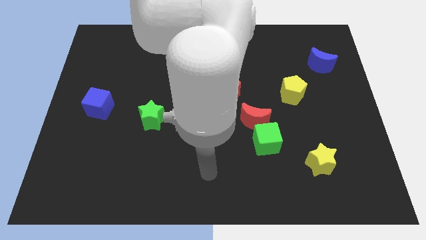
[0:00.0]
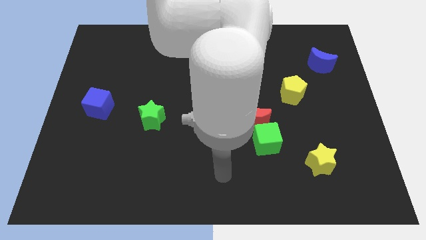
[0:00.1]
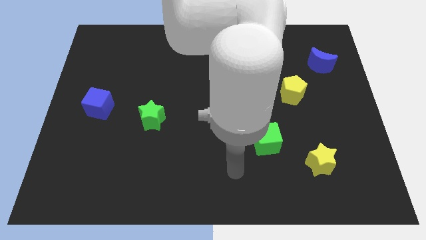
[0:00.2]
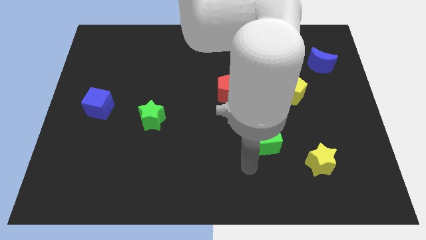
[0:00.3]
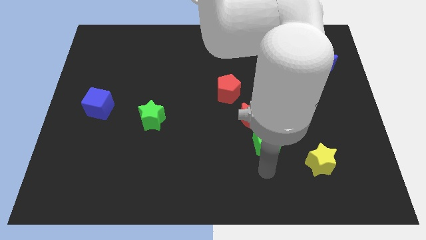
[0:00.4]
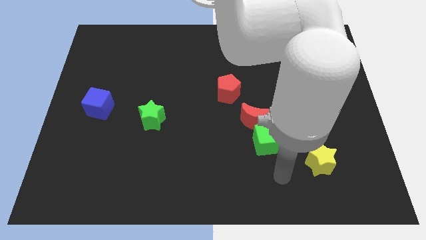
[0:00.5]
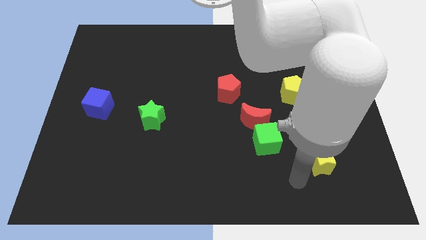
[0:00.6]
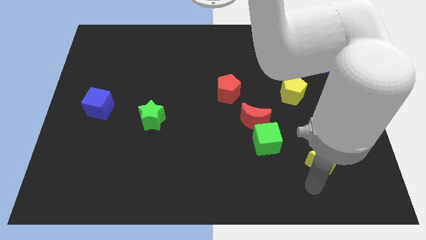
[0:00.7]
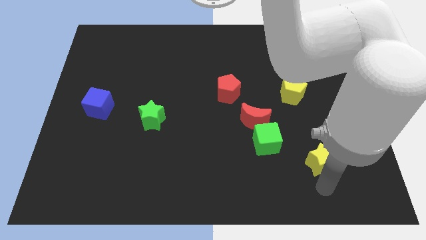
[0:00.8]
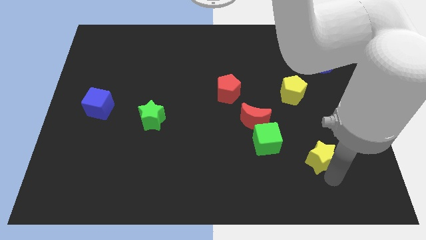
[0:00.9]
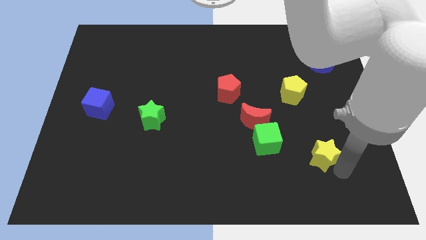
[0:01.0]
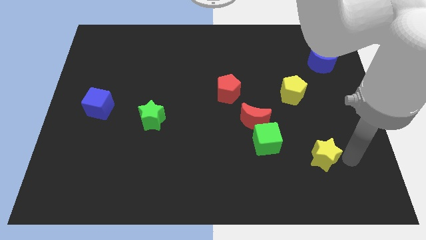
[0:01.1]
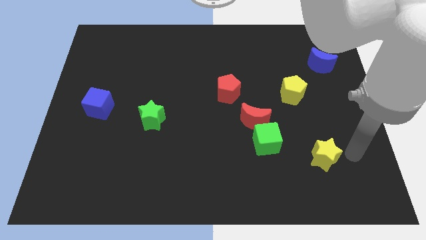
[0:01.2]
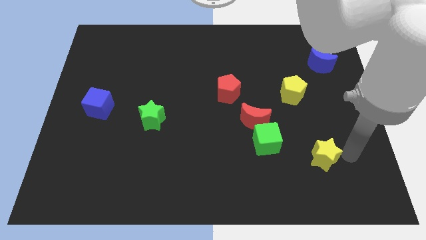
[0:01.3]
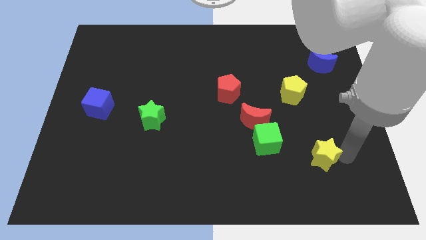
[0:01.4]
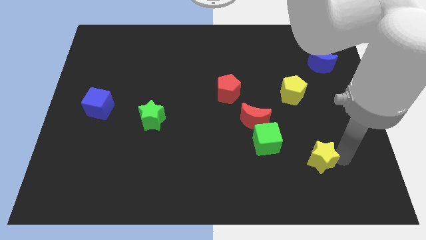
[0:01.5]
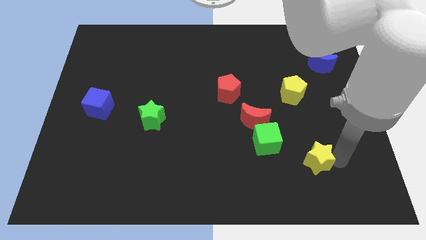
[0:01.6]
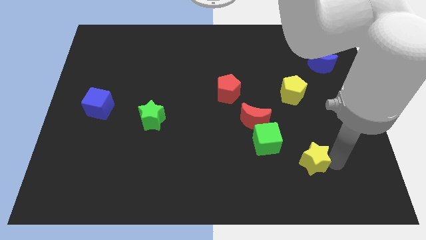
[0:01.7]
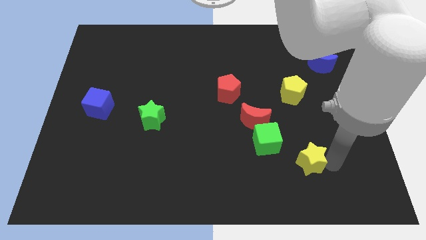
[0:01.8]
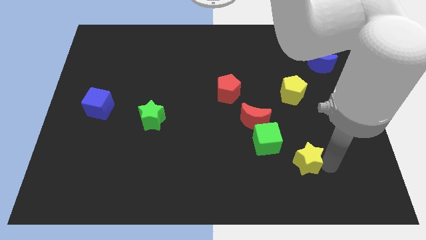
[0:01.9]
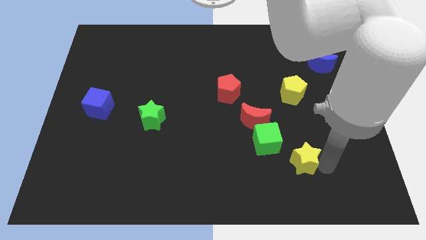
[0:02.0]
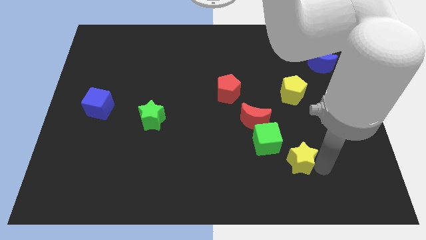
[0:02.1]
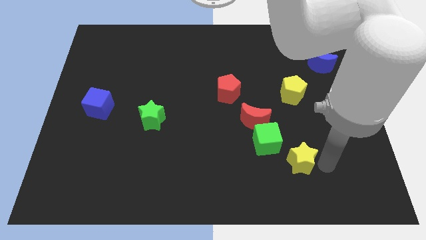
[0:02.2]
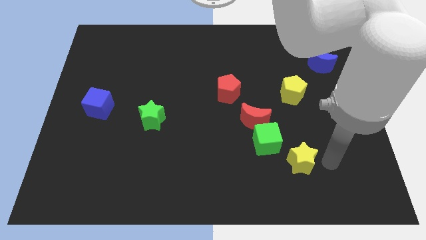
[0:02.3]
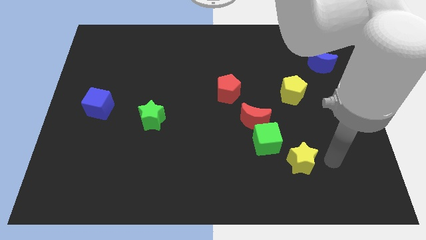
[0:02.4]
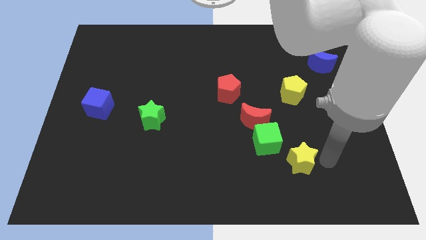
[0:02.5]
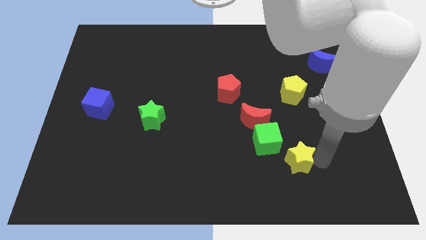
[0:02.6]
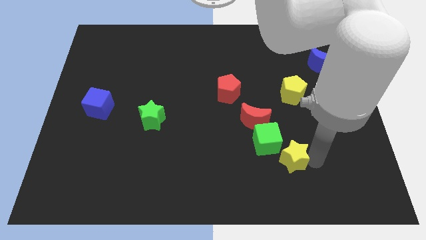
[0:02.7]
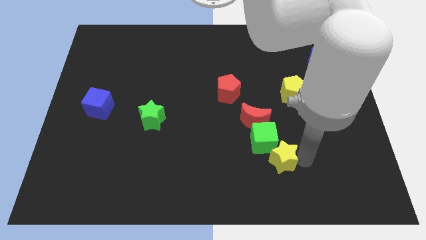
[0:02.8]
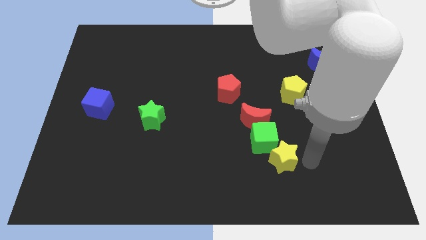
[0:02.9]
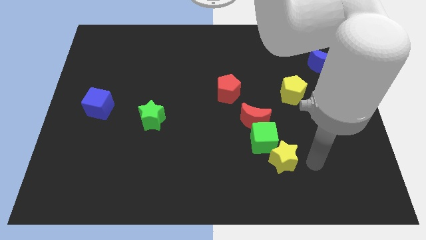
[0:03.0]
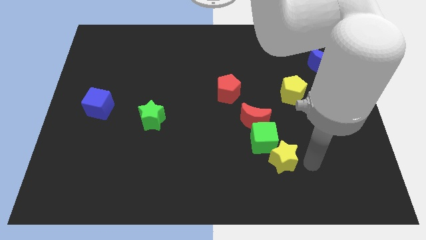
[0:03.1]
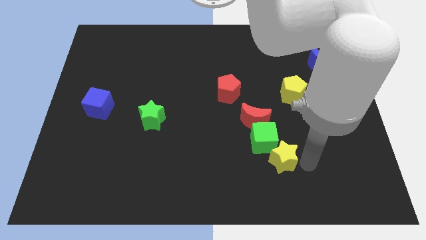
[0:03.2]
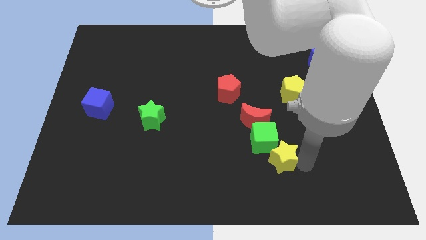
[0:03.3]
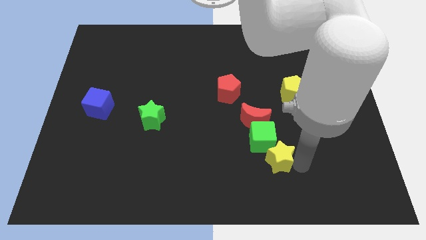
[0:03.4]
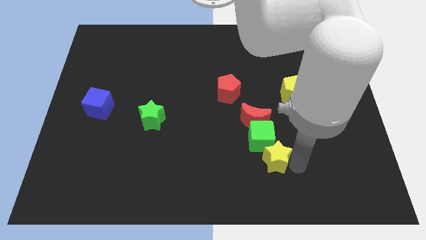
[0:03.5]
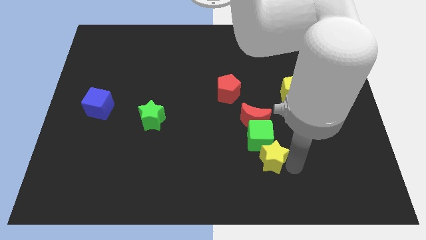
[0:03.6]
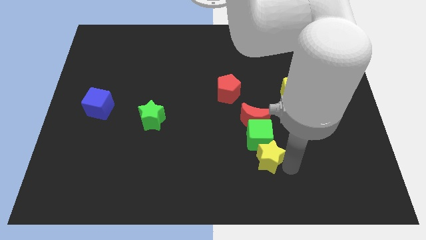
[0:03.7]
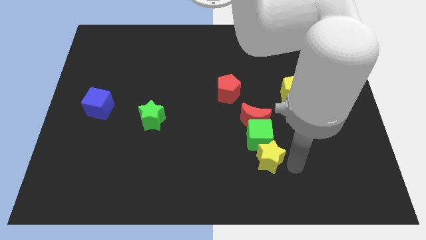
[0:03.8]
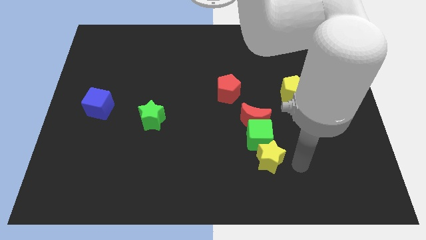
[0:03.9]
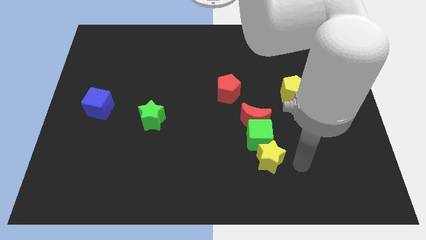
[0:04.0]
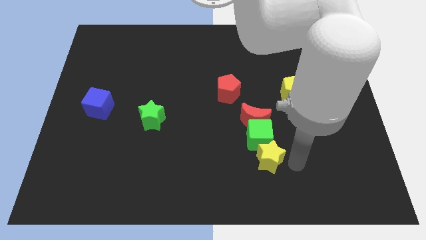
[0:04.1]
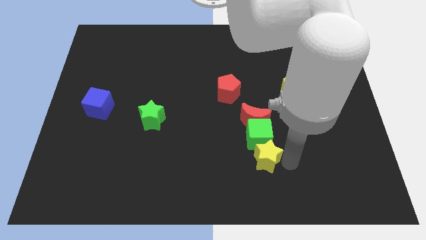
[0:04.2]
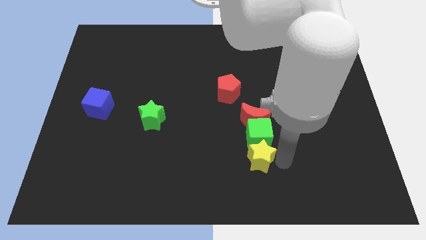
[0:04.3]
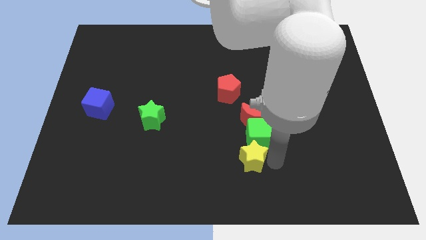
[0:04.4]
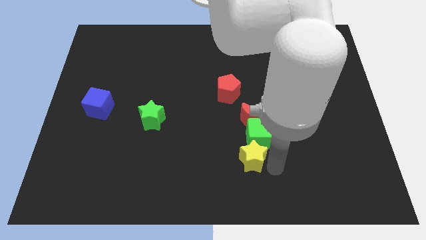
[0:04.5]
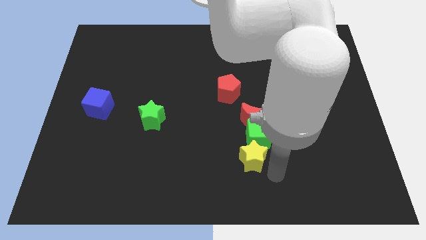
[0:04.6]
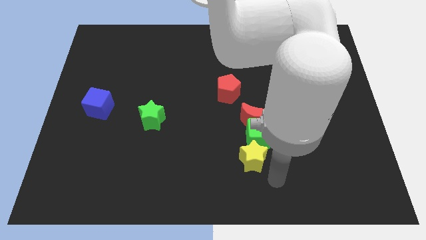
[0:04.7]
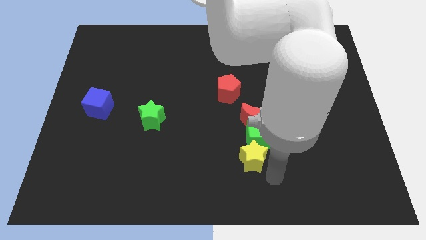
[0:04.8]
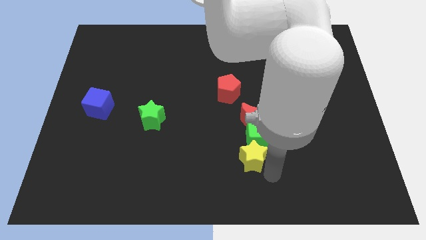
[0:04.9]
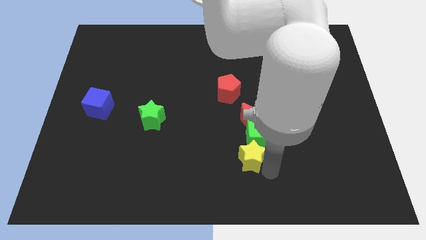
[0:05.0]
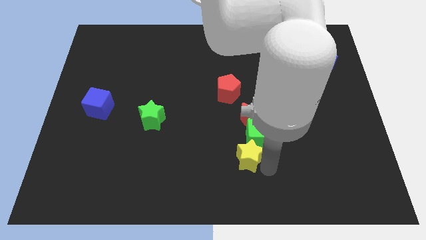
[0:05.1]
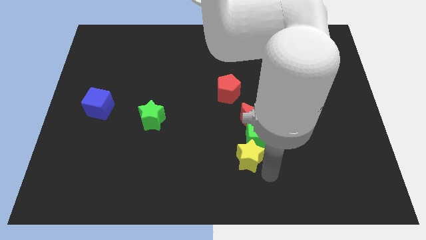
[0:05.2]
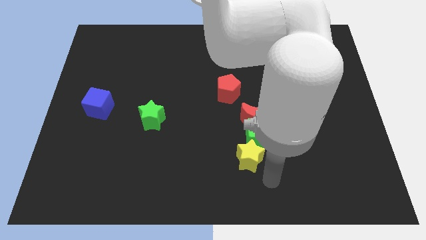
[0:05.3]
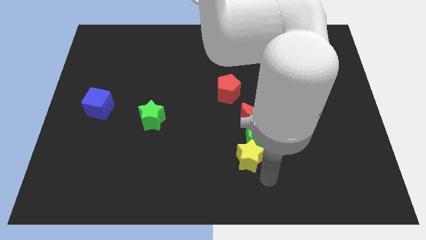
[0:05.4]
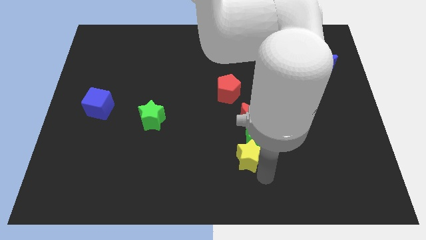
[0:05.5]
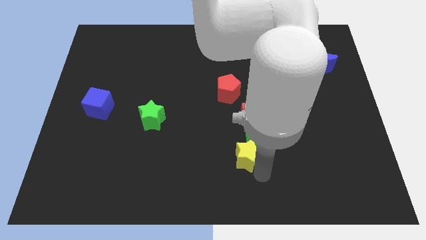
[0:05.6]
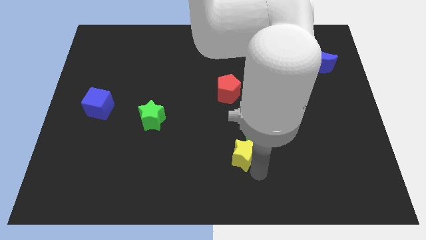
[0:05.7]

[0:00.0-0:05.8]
put the yellow star to the bottom left side of the red moon
